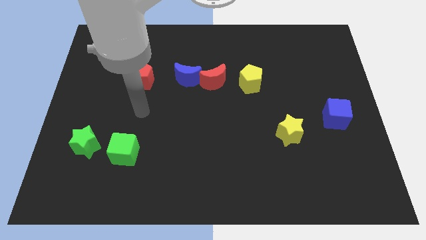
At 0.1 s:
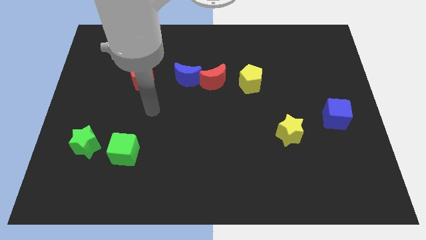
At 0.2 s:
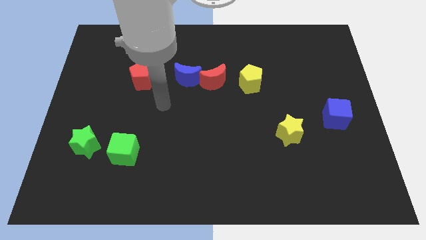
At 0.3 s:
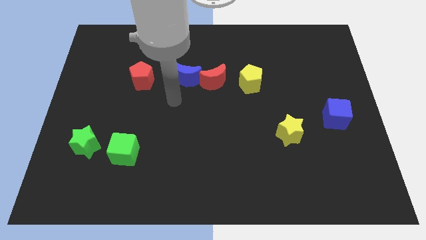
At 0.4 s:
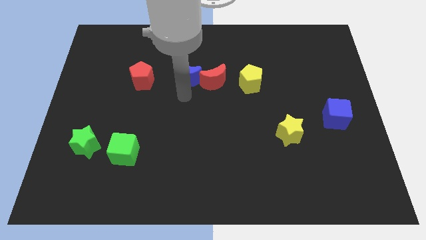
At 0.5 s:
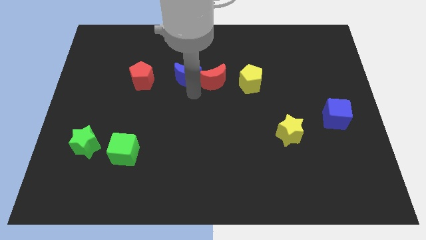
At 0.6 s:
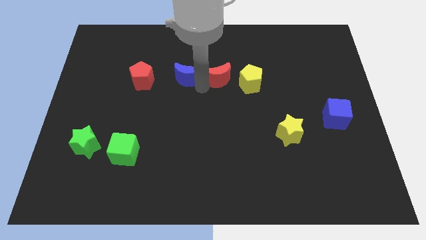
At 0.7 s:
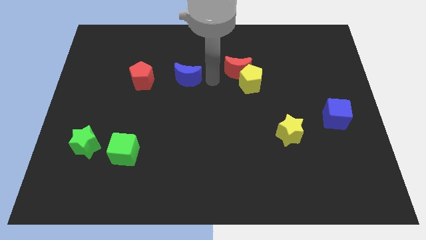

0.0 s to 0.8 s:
pull the blue moon apart from the red moon

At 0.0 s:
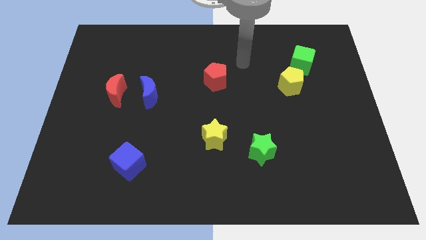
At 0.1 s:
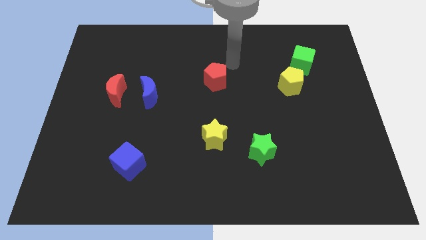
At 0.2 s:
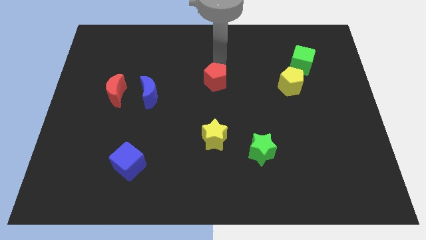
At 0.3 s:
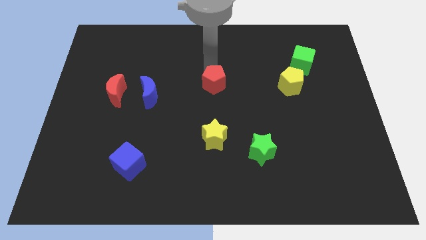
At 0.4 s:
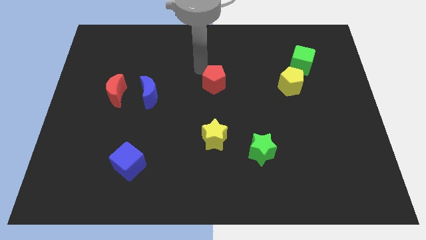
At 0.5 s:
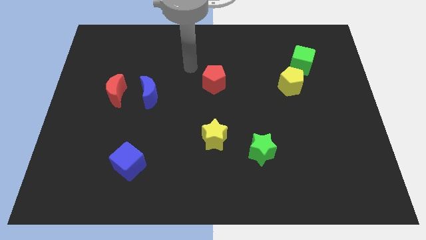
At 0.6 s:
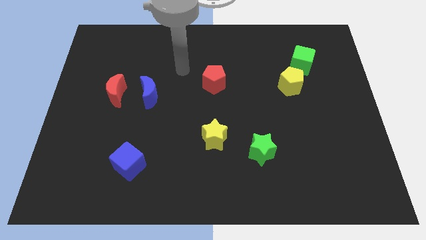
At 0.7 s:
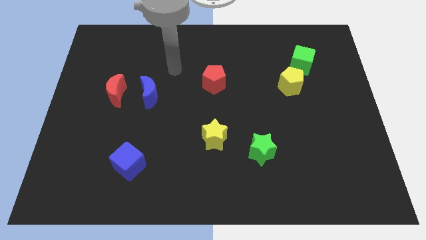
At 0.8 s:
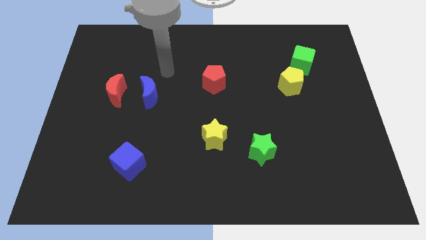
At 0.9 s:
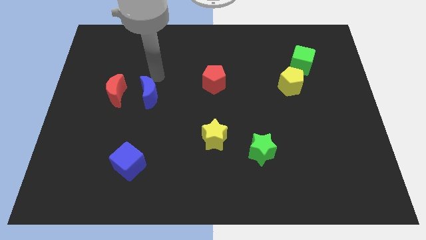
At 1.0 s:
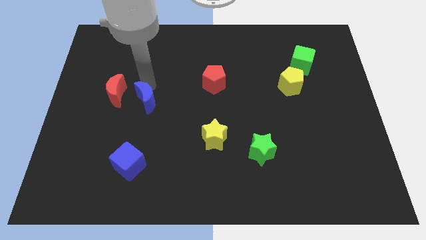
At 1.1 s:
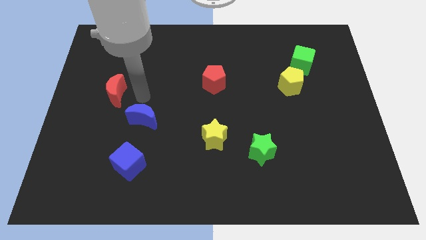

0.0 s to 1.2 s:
pull the red moon apart from the blue moon

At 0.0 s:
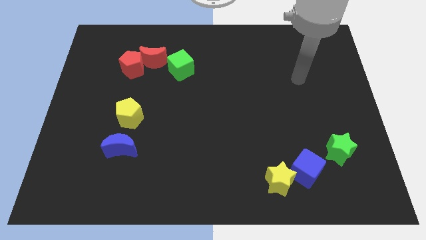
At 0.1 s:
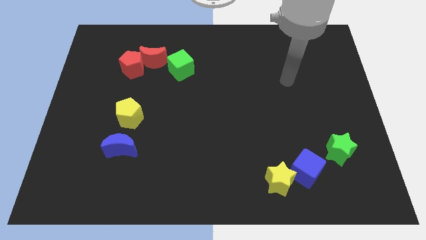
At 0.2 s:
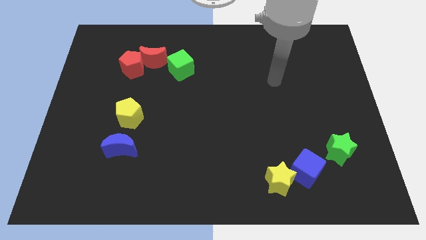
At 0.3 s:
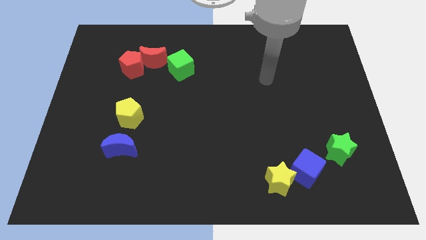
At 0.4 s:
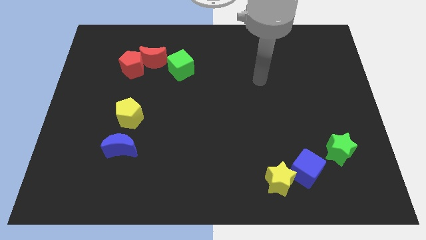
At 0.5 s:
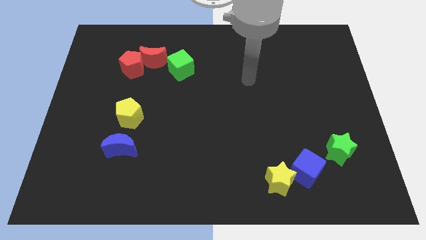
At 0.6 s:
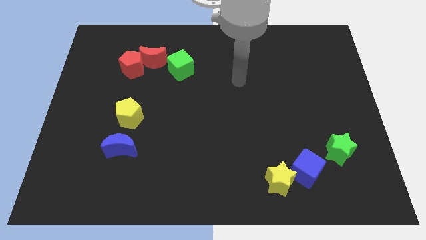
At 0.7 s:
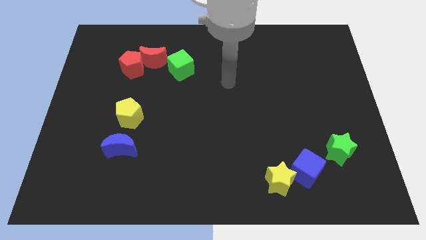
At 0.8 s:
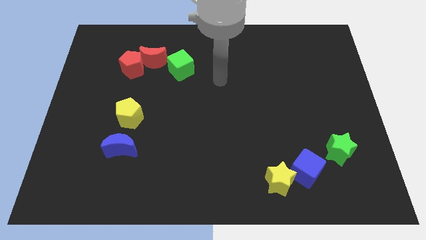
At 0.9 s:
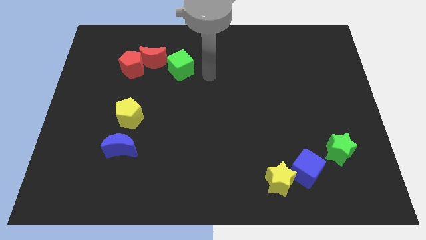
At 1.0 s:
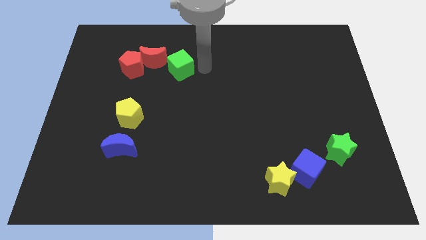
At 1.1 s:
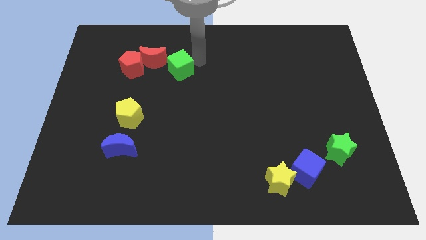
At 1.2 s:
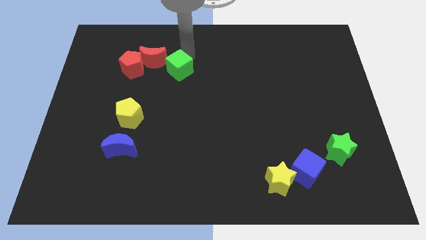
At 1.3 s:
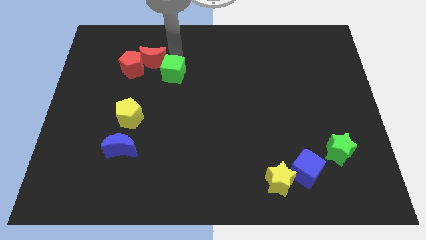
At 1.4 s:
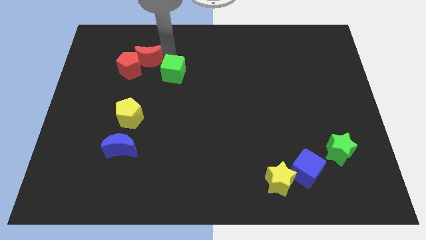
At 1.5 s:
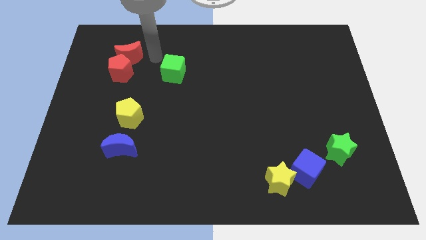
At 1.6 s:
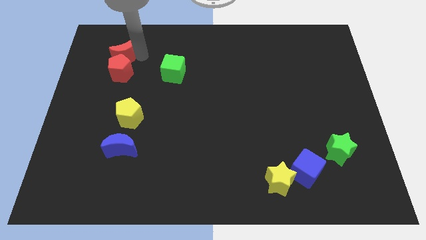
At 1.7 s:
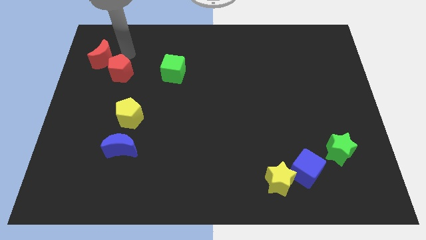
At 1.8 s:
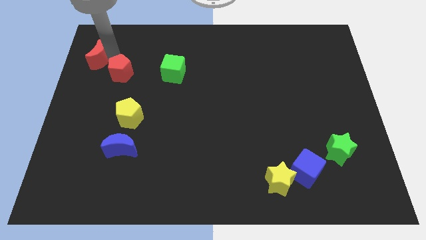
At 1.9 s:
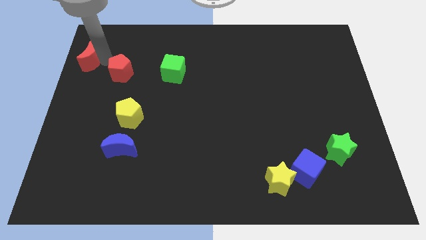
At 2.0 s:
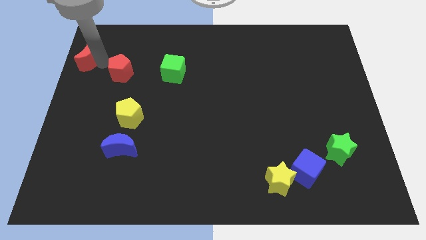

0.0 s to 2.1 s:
move the red pentagon away from the red moon

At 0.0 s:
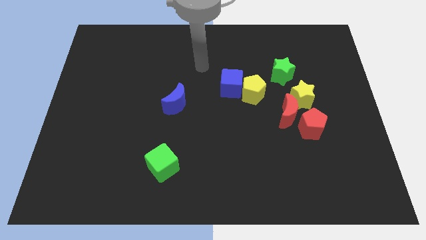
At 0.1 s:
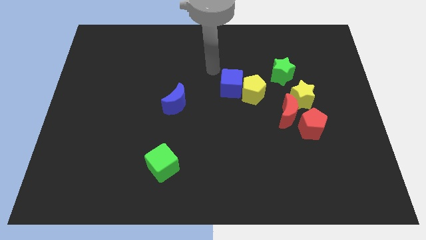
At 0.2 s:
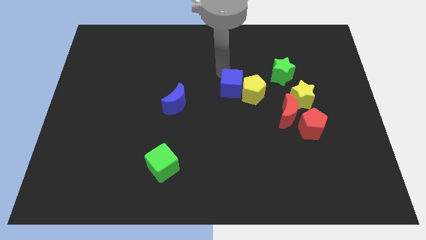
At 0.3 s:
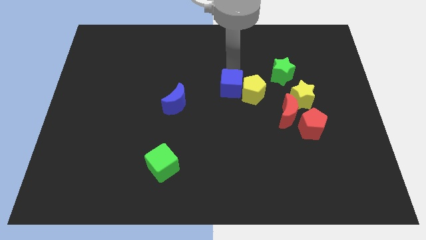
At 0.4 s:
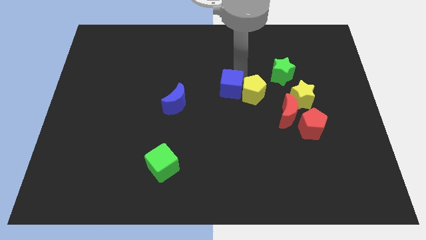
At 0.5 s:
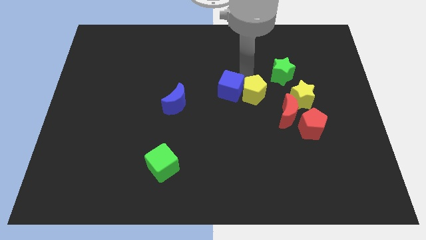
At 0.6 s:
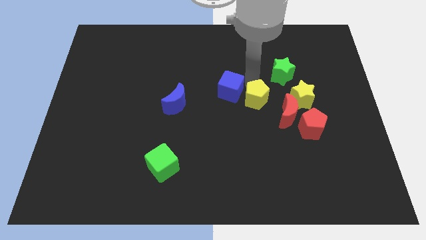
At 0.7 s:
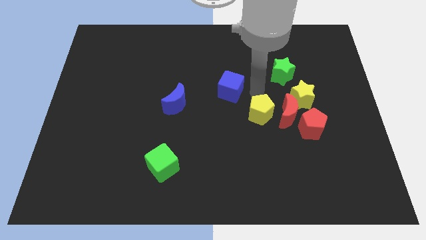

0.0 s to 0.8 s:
pull the blue cube apart from the yellow pentagon

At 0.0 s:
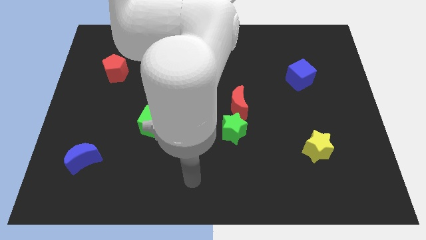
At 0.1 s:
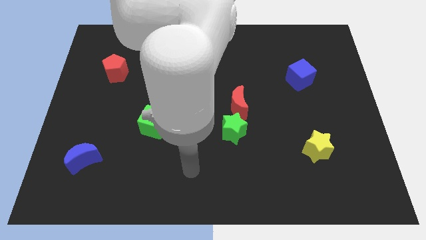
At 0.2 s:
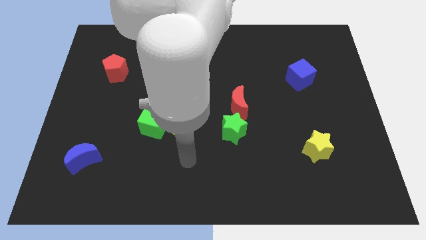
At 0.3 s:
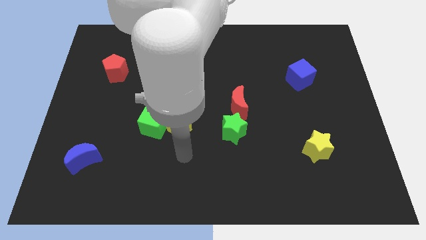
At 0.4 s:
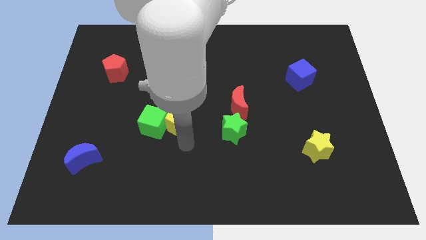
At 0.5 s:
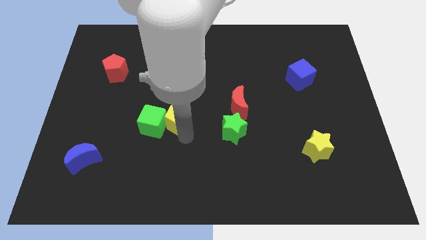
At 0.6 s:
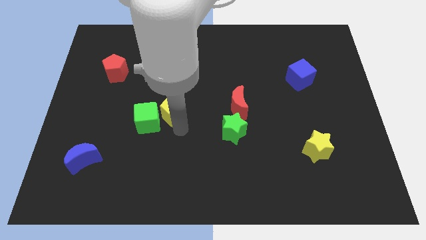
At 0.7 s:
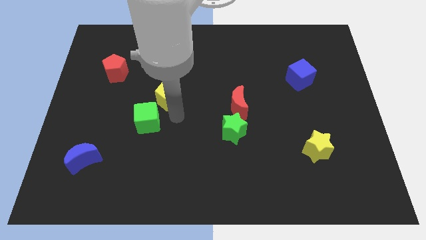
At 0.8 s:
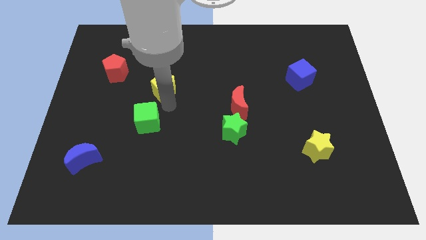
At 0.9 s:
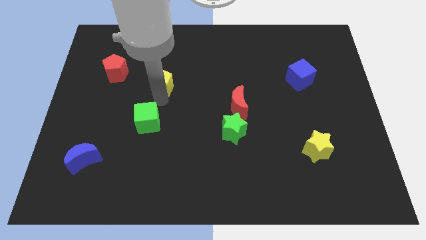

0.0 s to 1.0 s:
separate the green cube from the yellow pentagon

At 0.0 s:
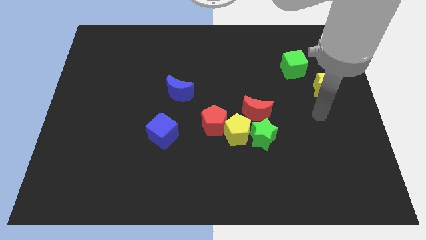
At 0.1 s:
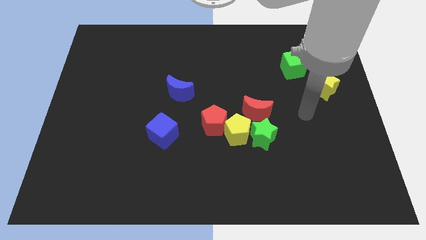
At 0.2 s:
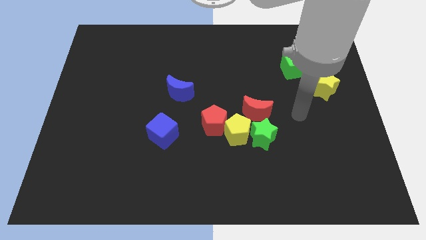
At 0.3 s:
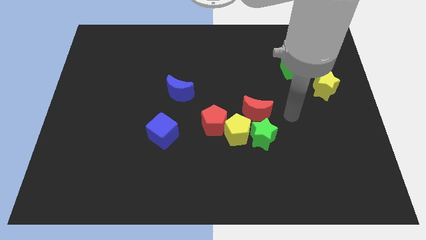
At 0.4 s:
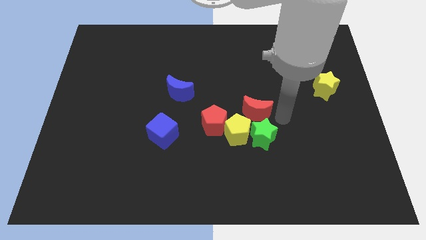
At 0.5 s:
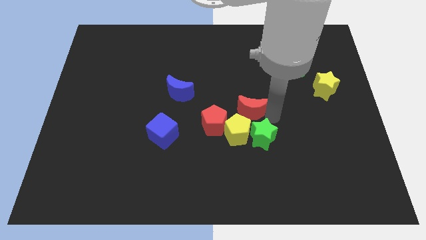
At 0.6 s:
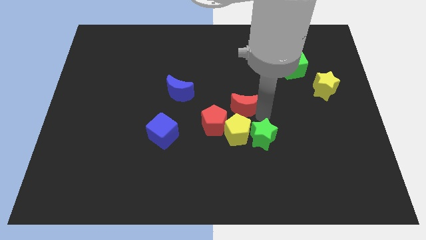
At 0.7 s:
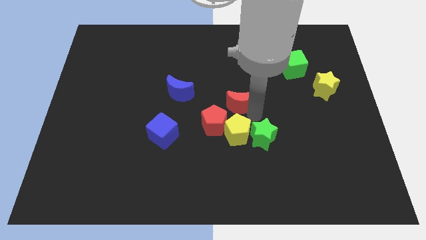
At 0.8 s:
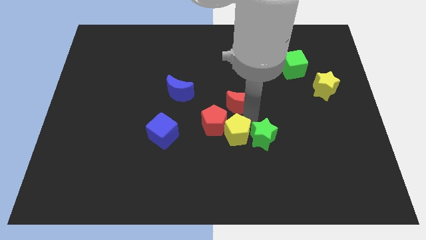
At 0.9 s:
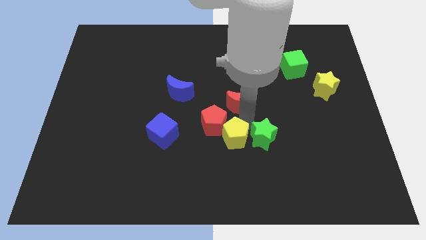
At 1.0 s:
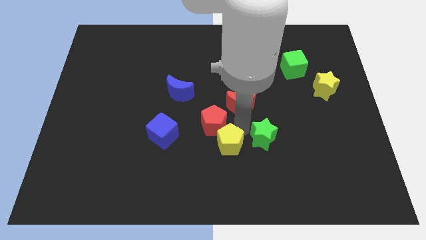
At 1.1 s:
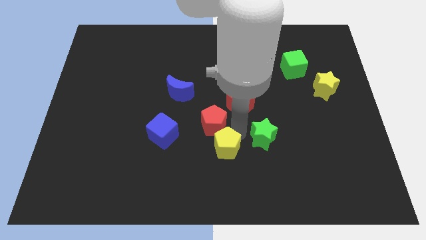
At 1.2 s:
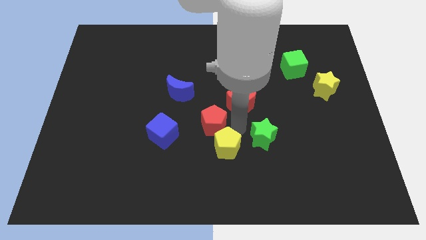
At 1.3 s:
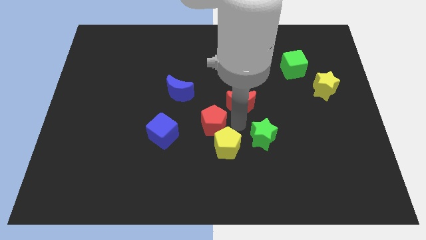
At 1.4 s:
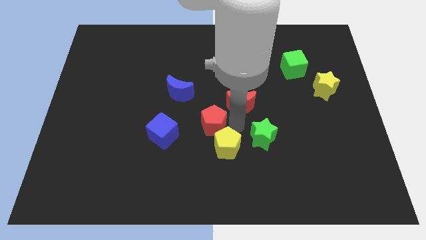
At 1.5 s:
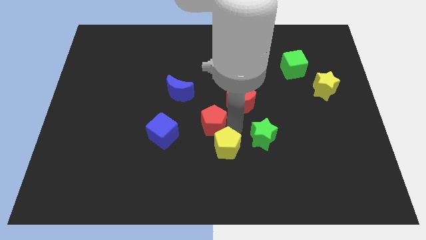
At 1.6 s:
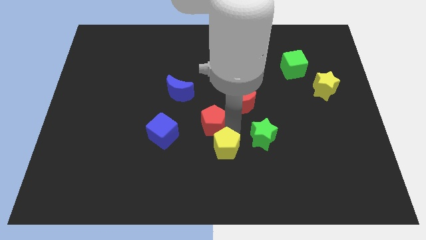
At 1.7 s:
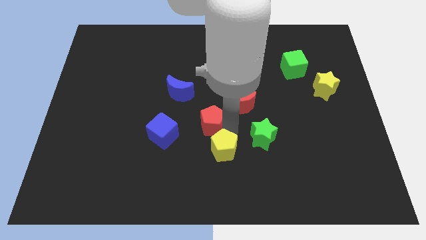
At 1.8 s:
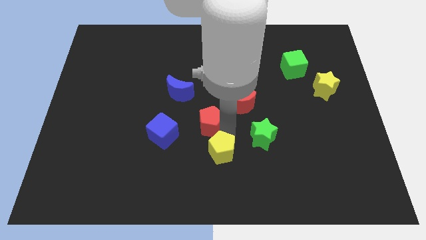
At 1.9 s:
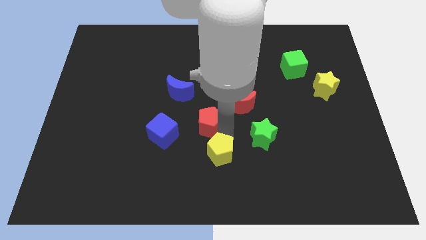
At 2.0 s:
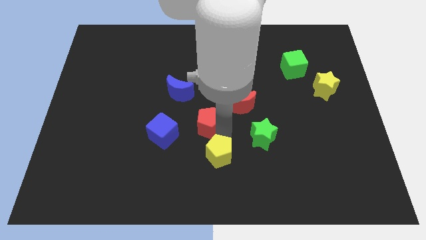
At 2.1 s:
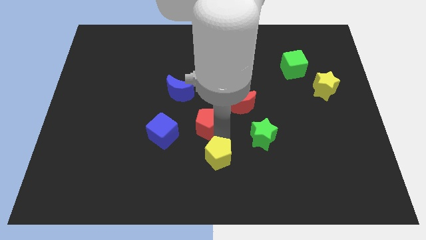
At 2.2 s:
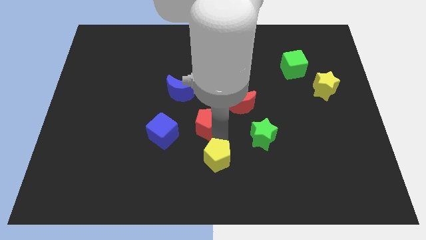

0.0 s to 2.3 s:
pull the yellow pentagon apart from the clump

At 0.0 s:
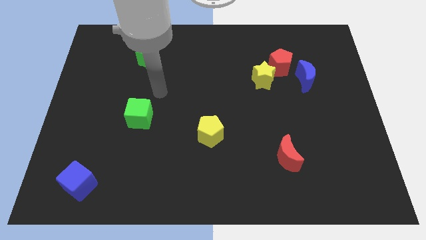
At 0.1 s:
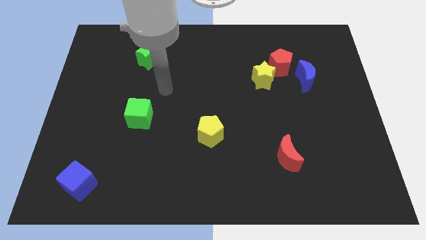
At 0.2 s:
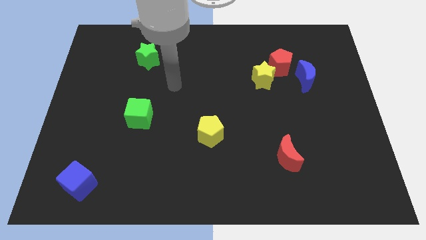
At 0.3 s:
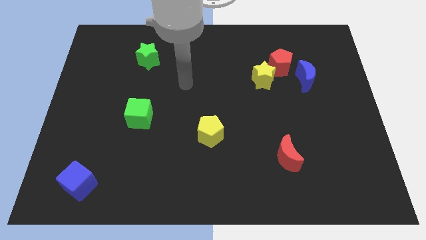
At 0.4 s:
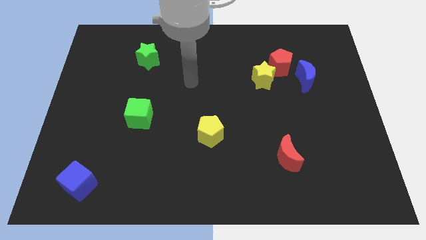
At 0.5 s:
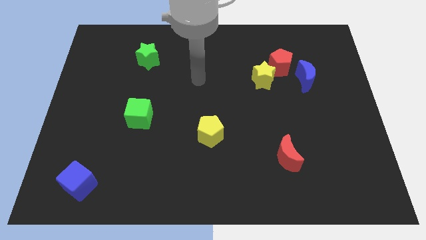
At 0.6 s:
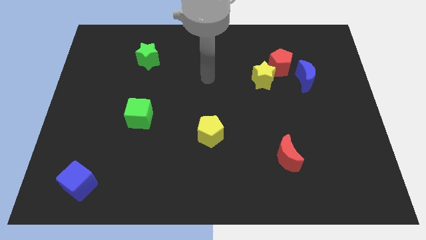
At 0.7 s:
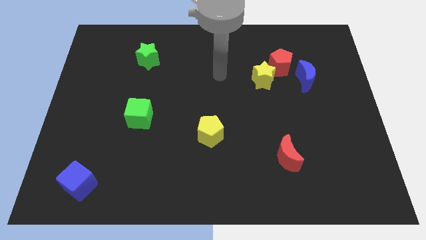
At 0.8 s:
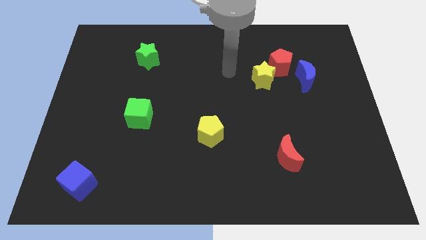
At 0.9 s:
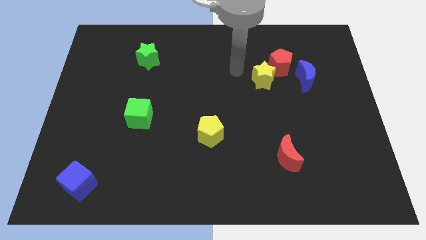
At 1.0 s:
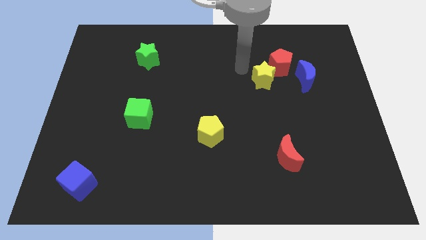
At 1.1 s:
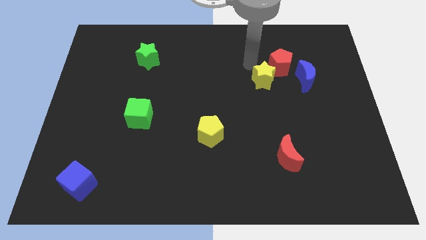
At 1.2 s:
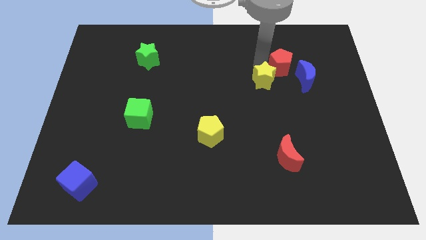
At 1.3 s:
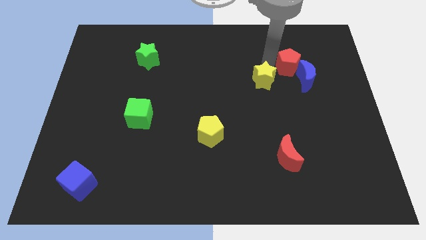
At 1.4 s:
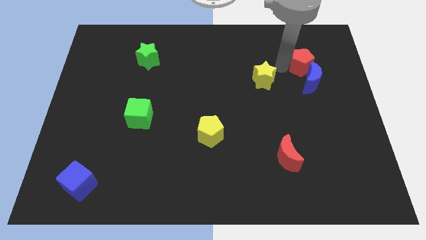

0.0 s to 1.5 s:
pull the yellow star apart from the red pentagon
